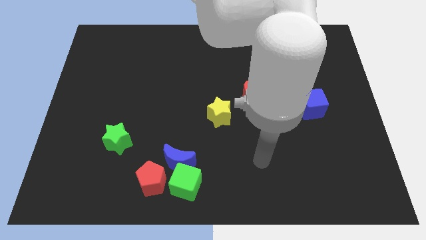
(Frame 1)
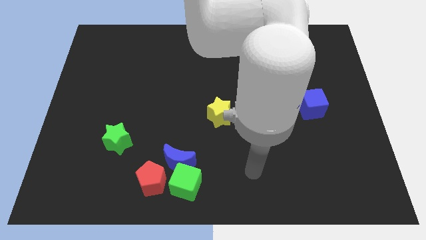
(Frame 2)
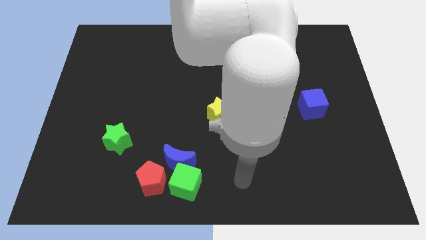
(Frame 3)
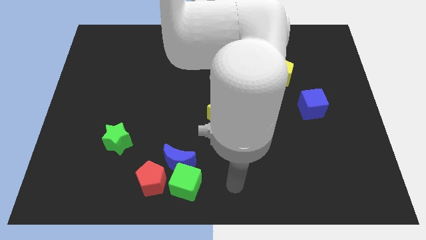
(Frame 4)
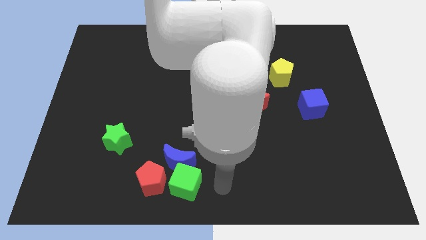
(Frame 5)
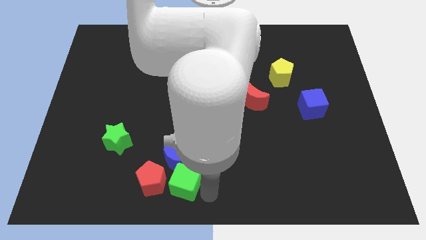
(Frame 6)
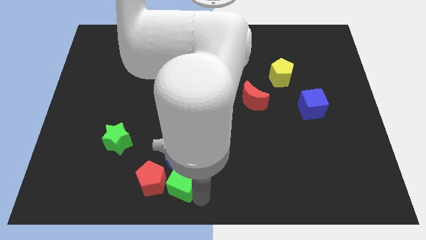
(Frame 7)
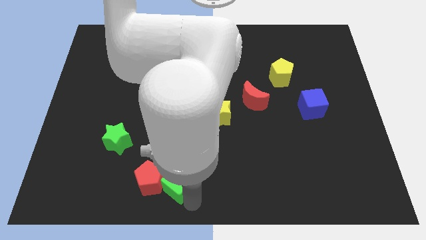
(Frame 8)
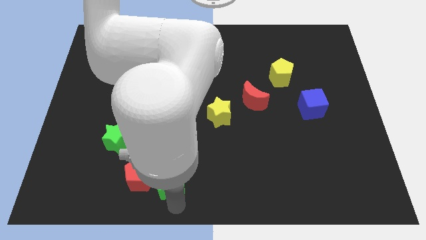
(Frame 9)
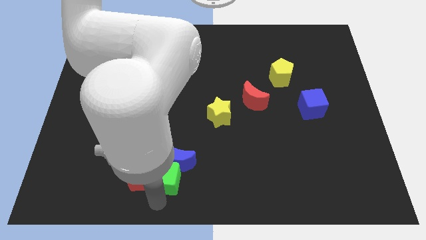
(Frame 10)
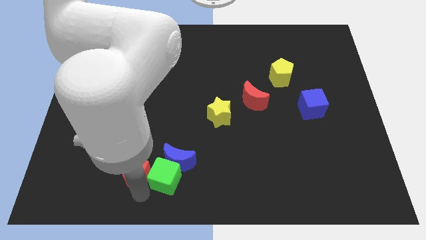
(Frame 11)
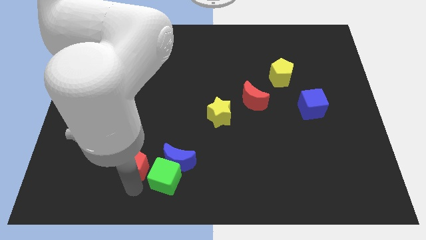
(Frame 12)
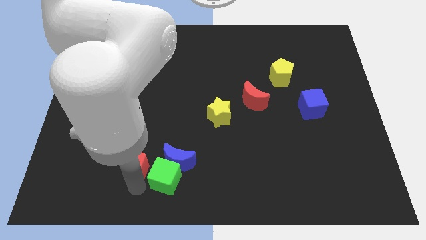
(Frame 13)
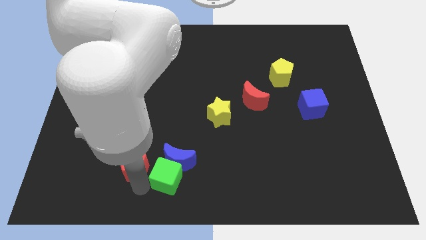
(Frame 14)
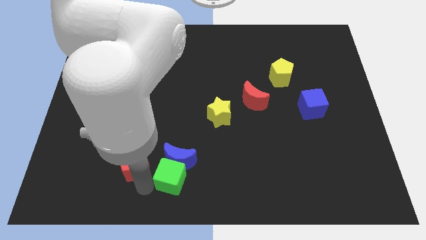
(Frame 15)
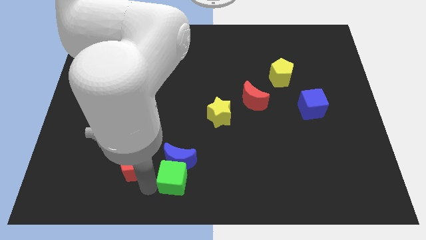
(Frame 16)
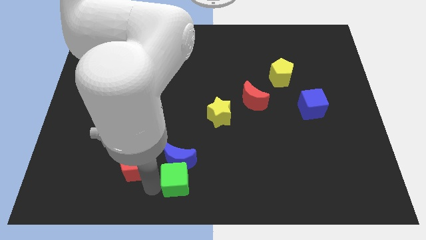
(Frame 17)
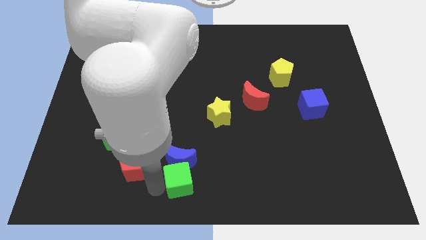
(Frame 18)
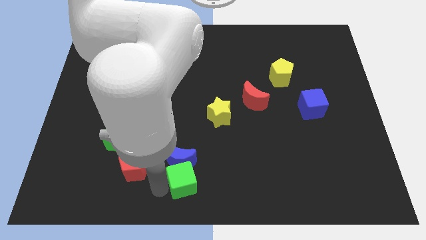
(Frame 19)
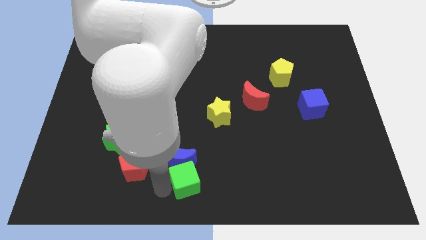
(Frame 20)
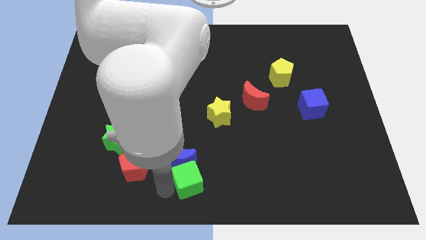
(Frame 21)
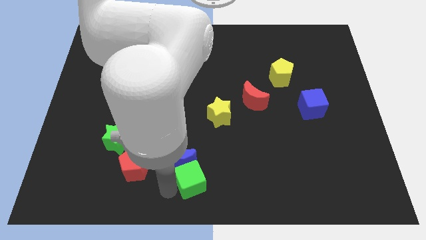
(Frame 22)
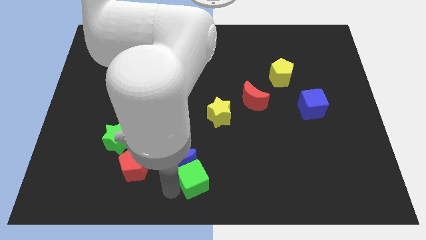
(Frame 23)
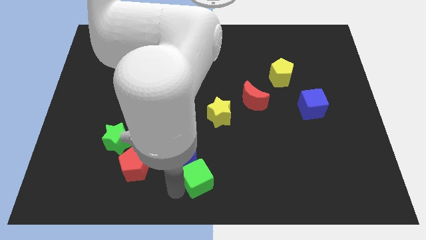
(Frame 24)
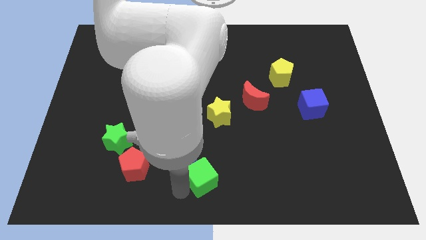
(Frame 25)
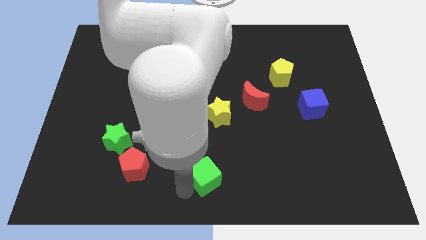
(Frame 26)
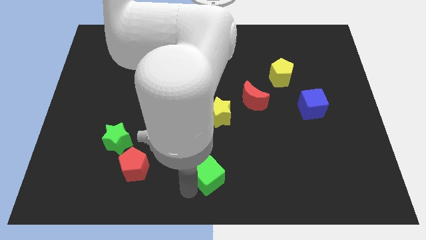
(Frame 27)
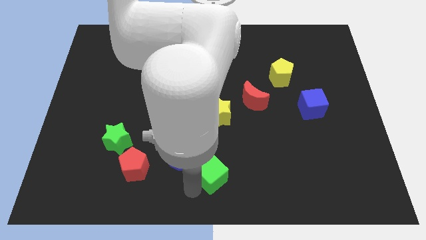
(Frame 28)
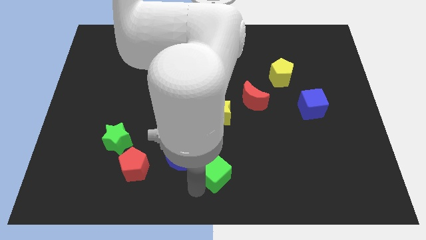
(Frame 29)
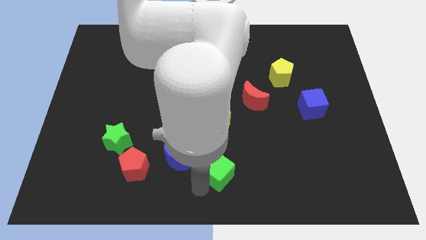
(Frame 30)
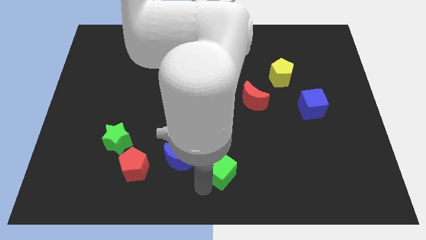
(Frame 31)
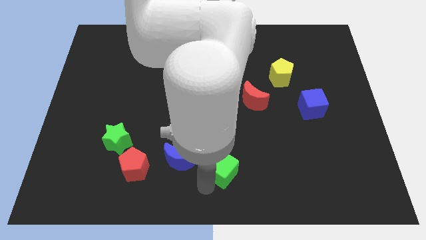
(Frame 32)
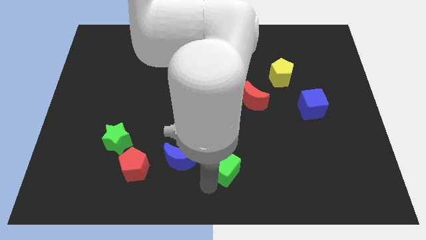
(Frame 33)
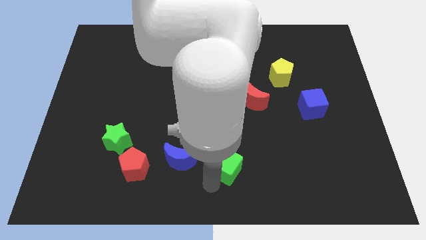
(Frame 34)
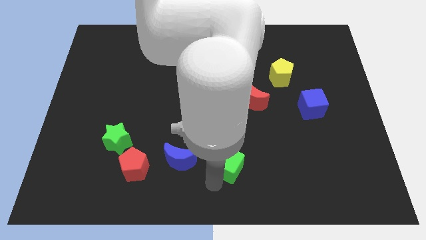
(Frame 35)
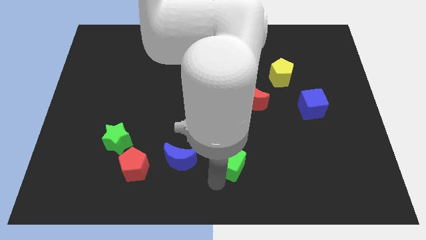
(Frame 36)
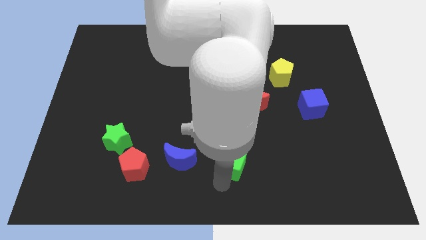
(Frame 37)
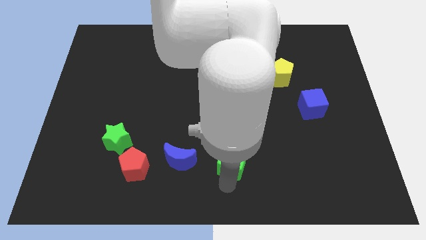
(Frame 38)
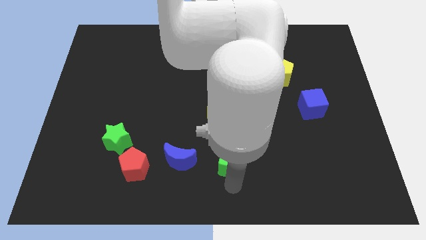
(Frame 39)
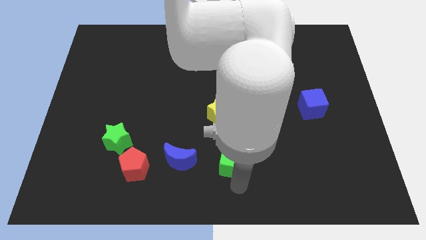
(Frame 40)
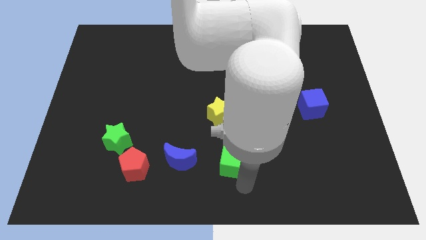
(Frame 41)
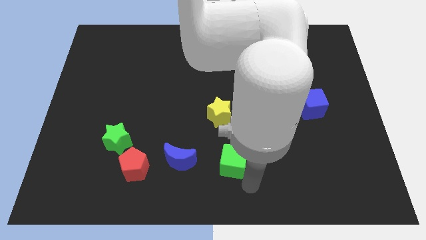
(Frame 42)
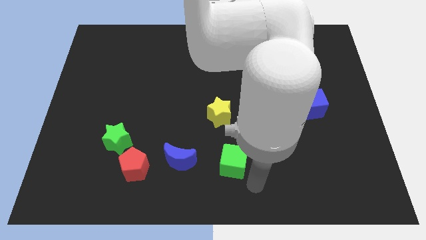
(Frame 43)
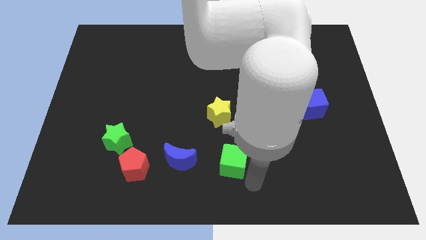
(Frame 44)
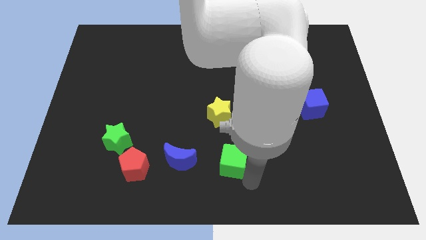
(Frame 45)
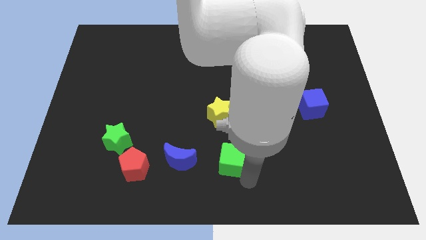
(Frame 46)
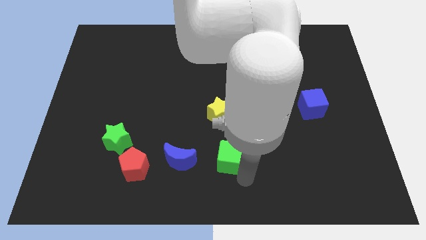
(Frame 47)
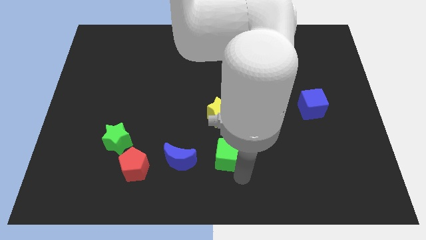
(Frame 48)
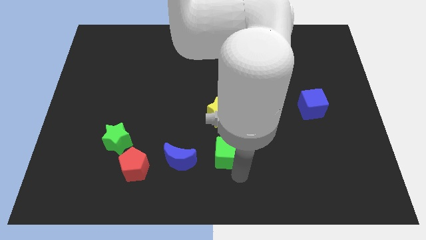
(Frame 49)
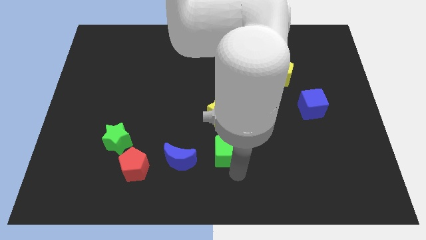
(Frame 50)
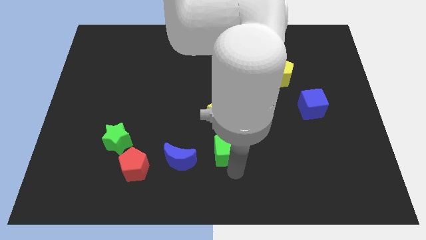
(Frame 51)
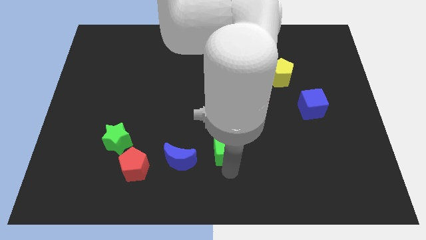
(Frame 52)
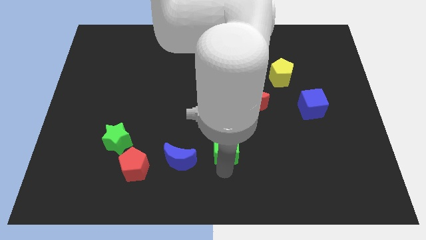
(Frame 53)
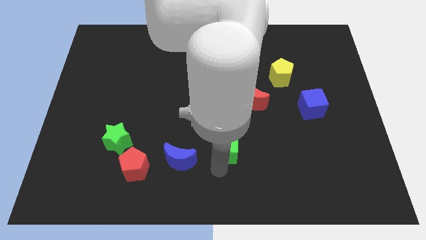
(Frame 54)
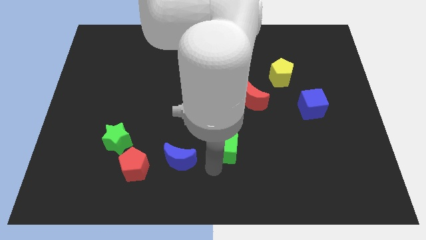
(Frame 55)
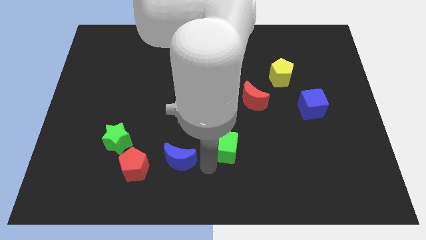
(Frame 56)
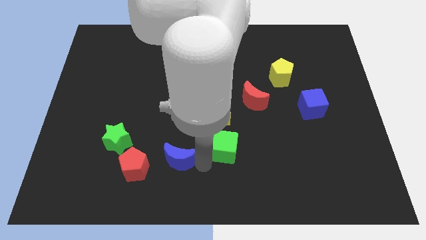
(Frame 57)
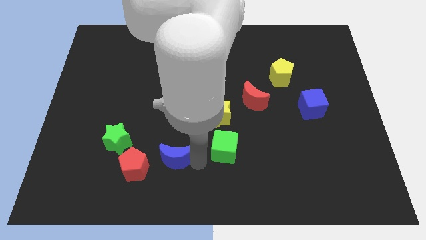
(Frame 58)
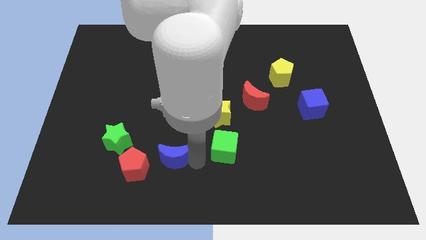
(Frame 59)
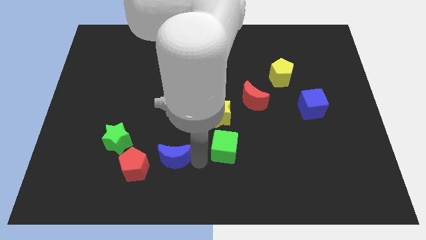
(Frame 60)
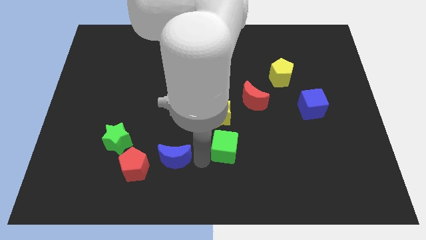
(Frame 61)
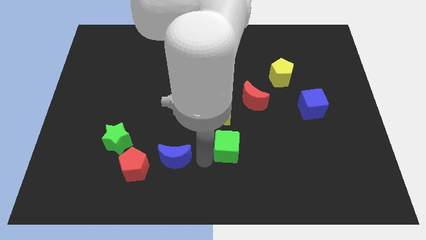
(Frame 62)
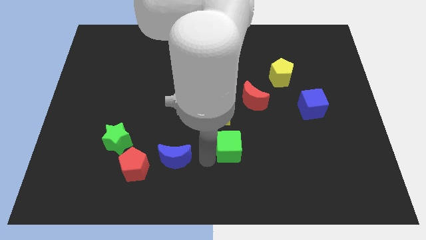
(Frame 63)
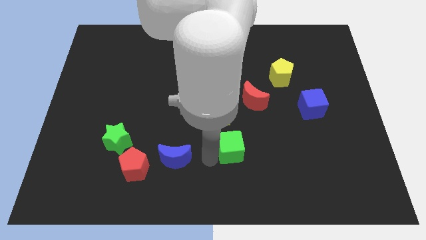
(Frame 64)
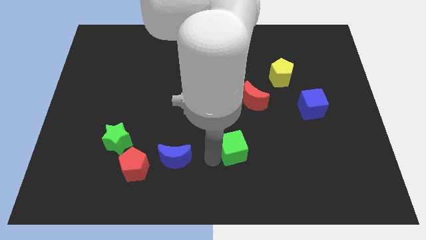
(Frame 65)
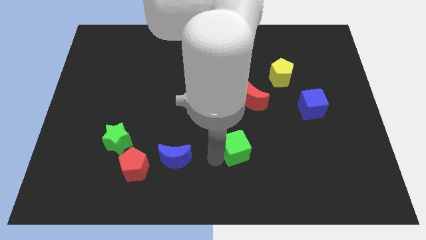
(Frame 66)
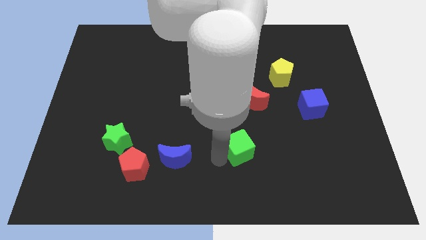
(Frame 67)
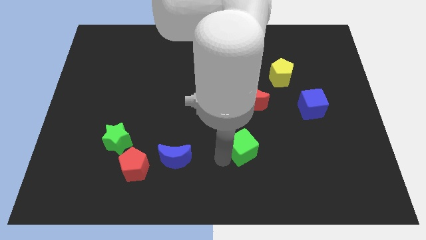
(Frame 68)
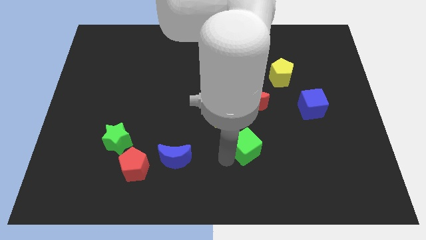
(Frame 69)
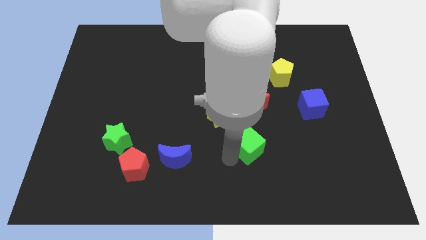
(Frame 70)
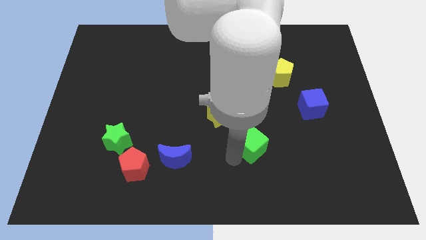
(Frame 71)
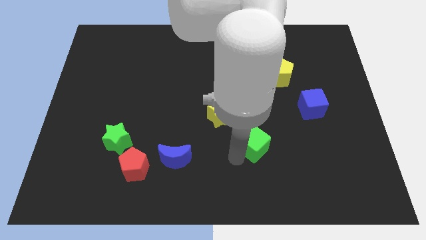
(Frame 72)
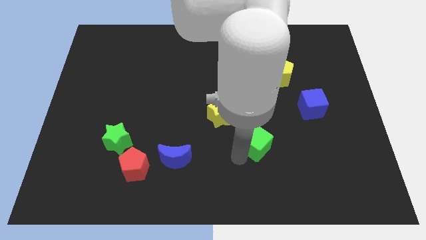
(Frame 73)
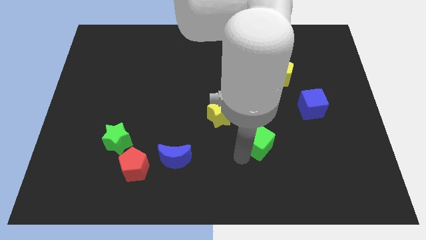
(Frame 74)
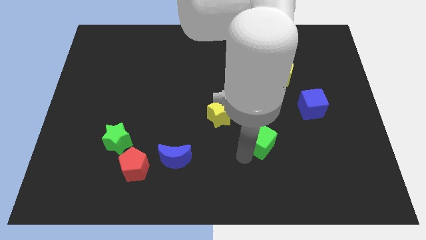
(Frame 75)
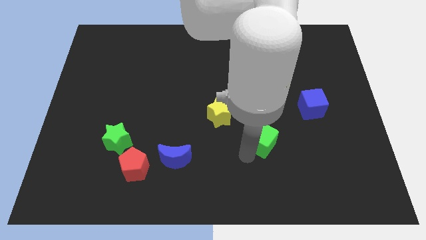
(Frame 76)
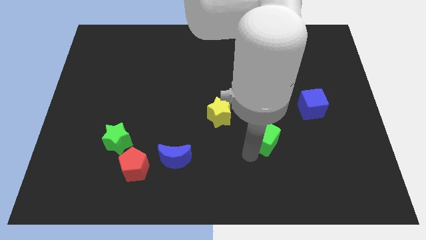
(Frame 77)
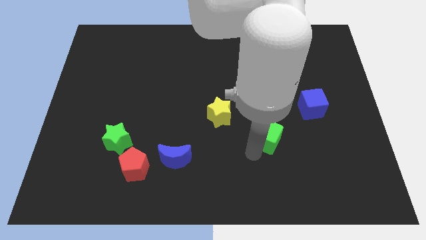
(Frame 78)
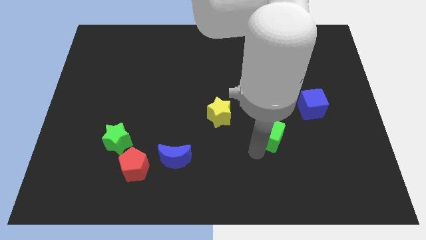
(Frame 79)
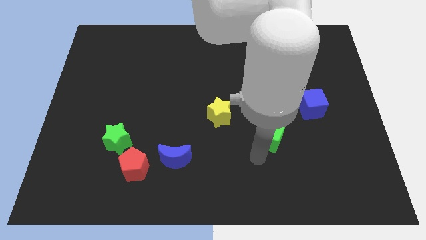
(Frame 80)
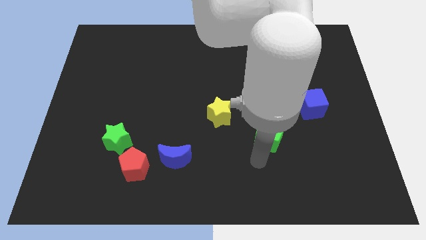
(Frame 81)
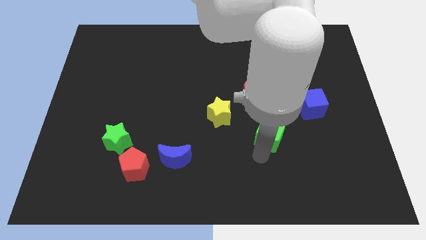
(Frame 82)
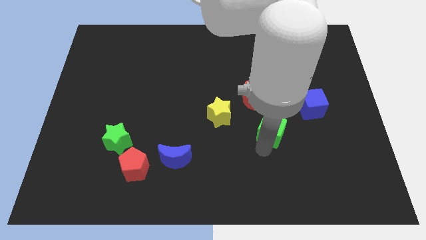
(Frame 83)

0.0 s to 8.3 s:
move the green cube to the bottom right of the red moon
